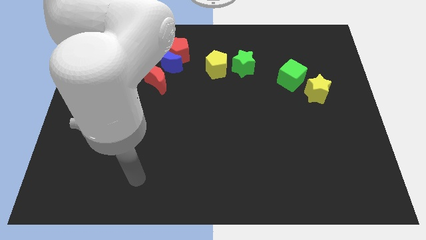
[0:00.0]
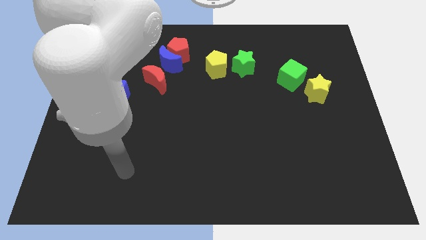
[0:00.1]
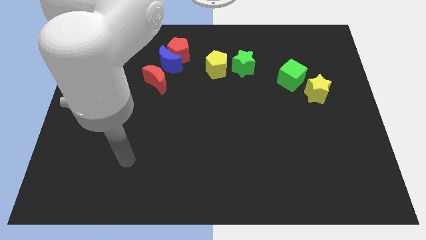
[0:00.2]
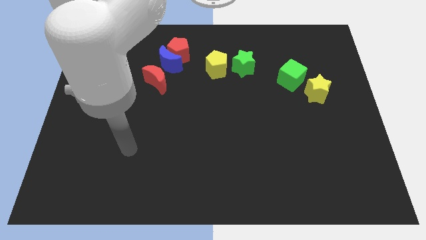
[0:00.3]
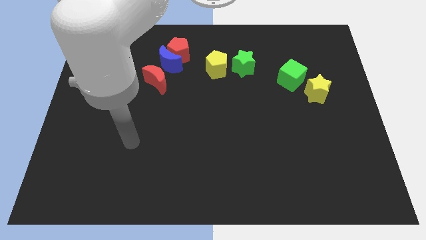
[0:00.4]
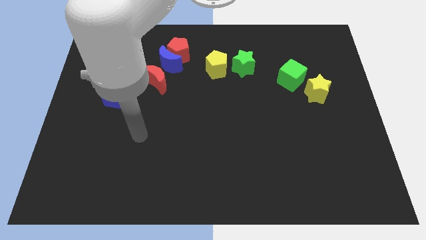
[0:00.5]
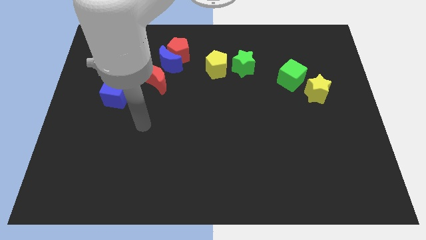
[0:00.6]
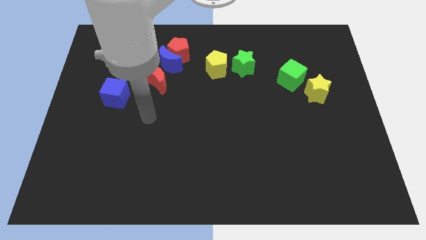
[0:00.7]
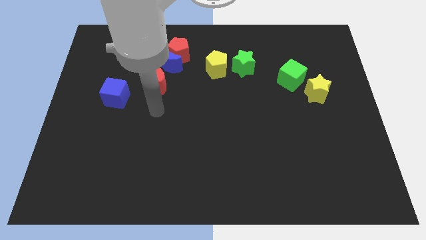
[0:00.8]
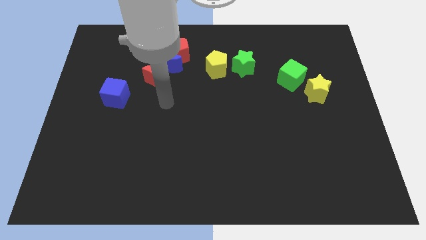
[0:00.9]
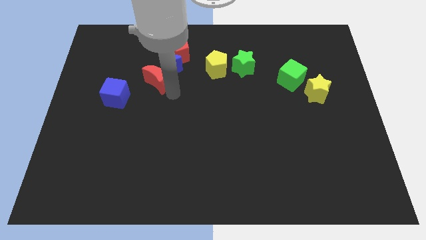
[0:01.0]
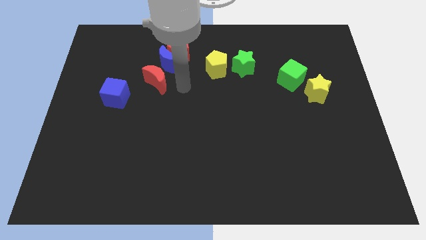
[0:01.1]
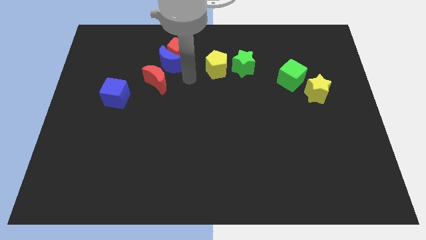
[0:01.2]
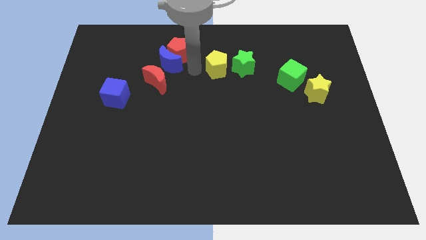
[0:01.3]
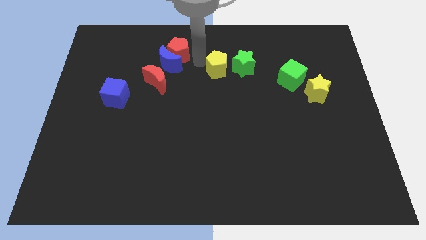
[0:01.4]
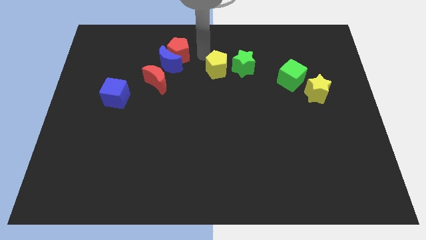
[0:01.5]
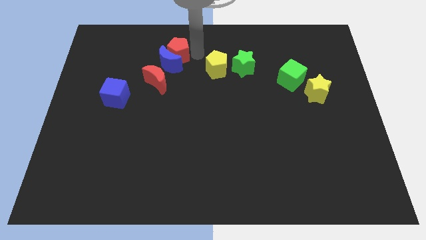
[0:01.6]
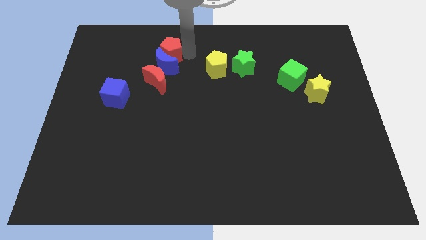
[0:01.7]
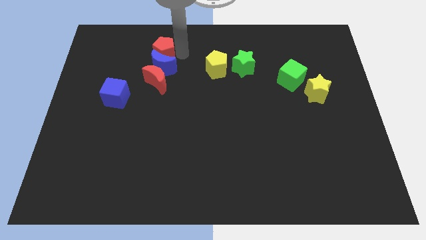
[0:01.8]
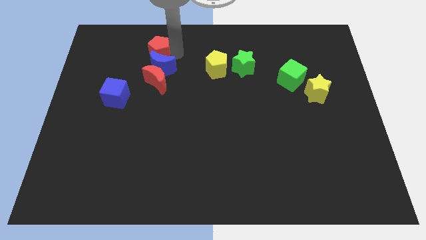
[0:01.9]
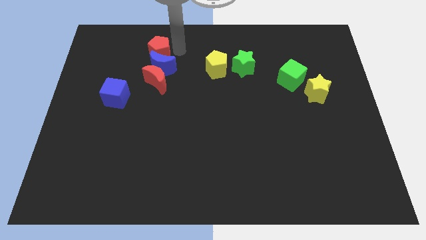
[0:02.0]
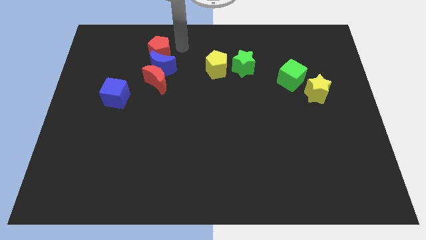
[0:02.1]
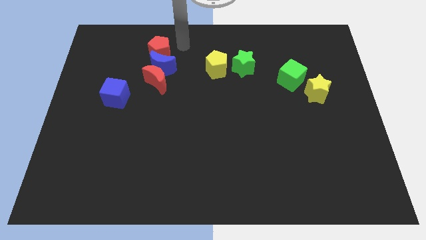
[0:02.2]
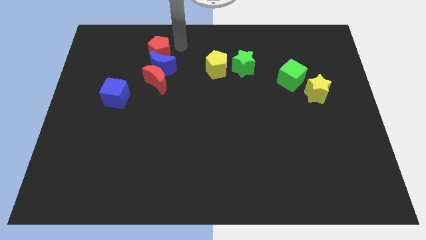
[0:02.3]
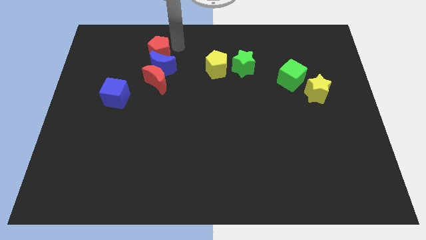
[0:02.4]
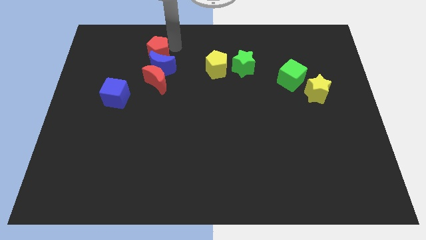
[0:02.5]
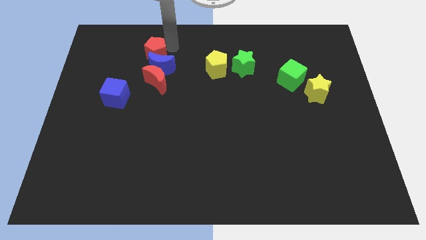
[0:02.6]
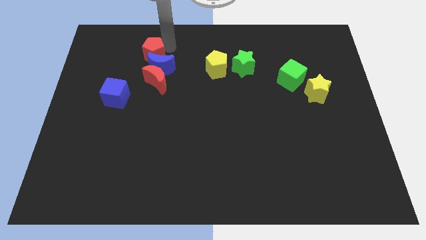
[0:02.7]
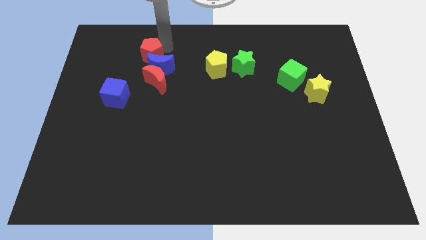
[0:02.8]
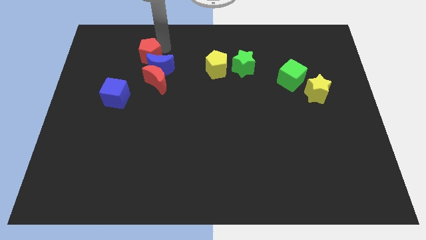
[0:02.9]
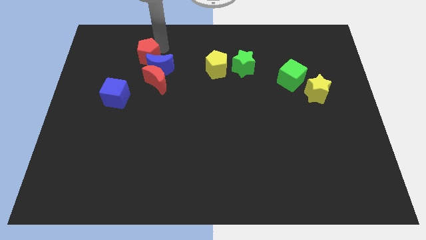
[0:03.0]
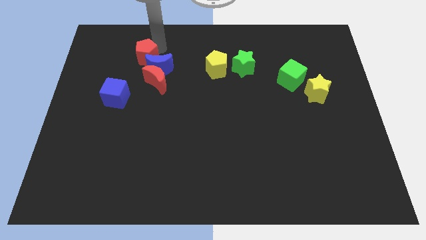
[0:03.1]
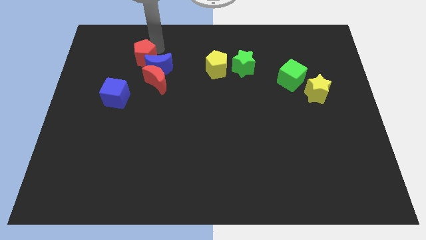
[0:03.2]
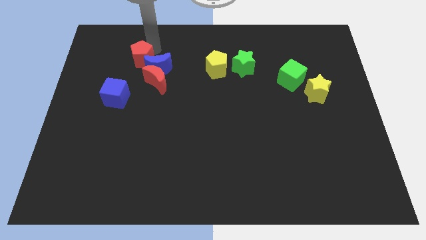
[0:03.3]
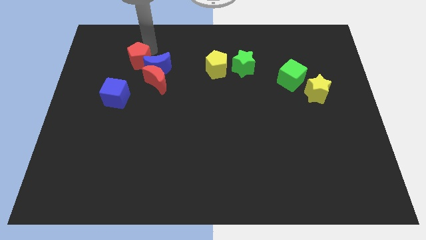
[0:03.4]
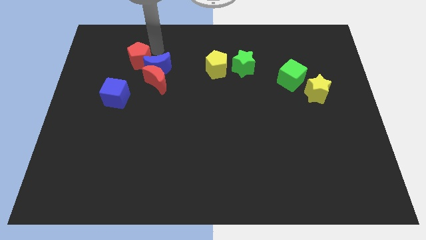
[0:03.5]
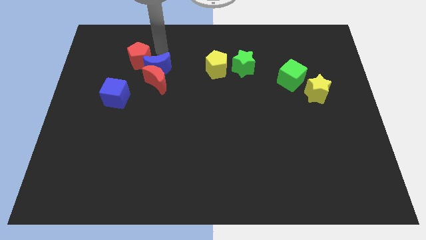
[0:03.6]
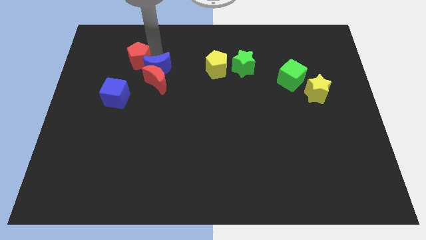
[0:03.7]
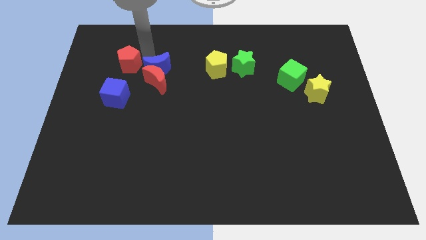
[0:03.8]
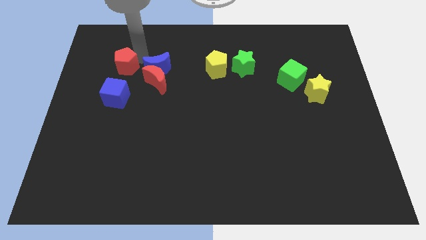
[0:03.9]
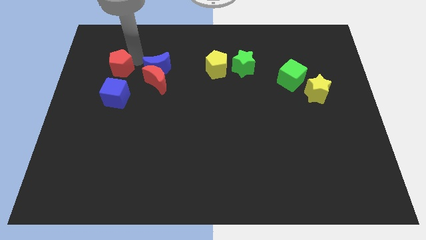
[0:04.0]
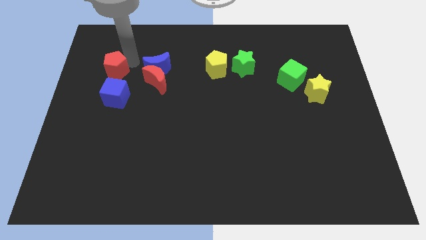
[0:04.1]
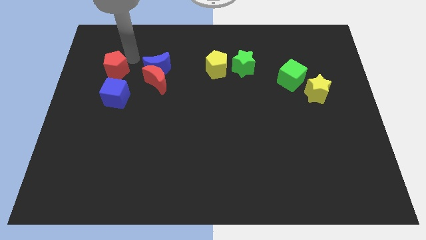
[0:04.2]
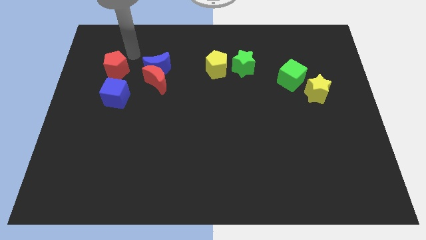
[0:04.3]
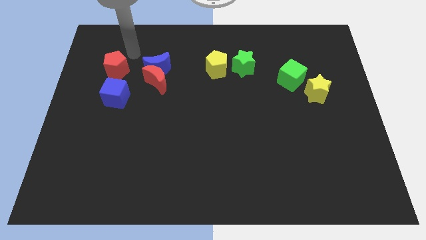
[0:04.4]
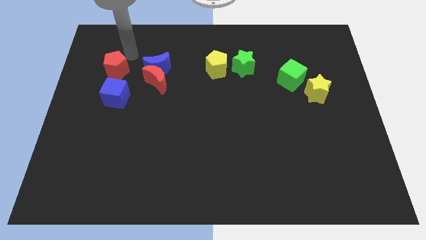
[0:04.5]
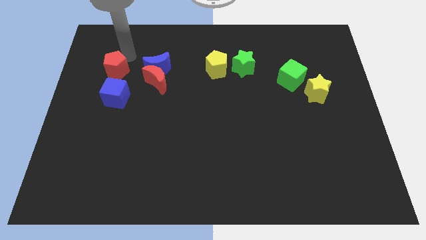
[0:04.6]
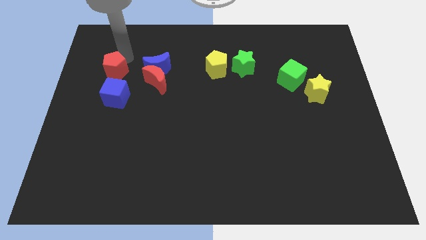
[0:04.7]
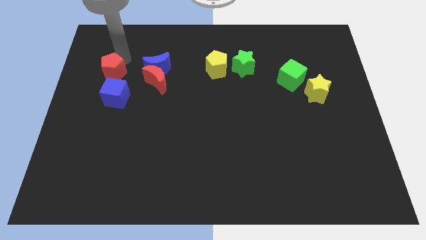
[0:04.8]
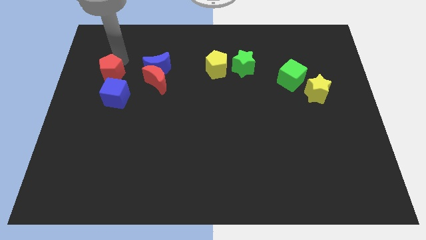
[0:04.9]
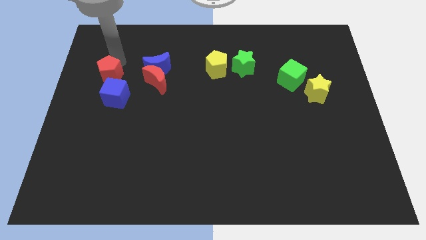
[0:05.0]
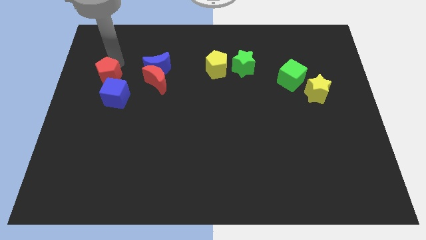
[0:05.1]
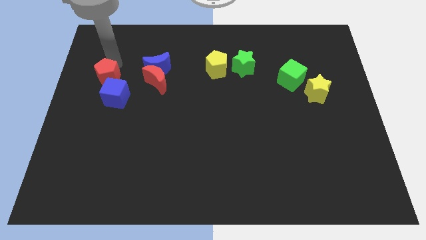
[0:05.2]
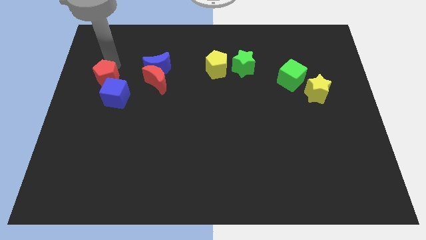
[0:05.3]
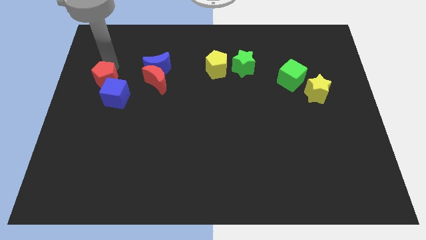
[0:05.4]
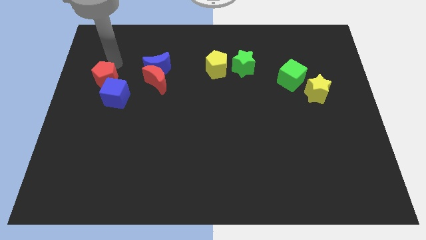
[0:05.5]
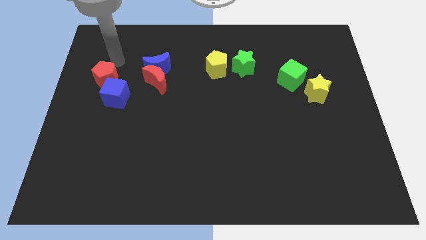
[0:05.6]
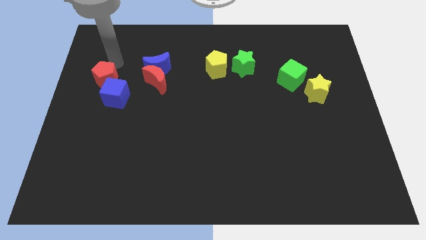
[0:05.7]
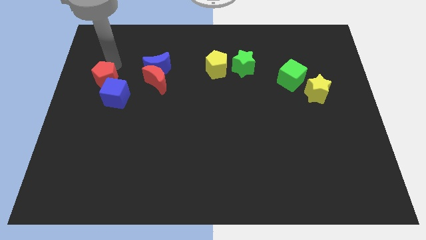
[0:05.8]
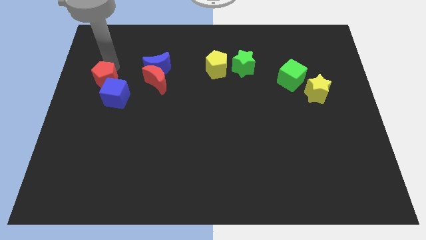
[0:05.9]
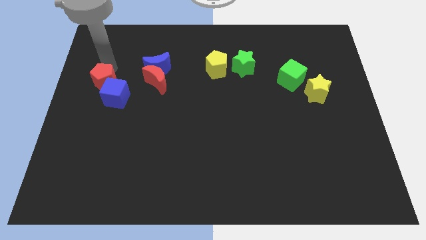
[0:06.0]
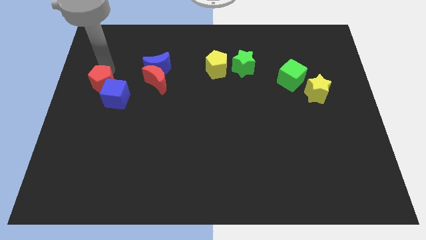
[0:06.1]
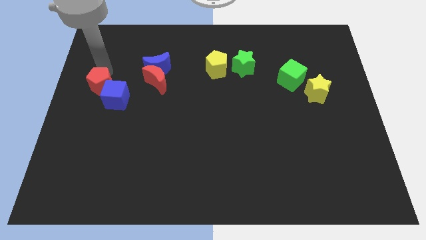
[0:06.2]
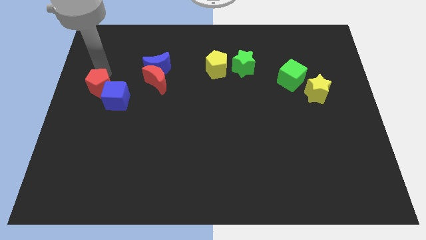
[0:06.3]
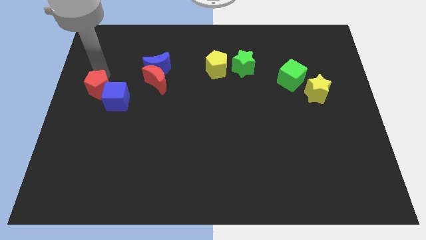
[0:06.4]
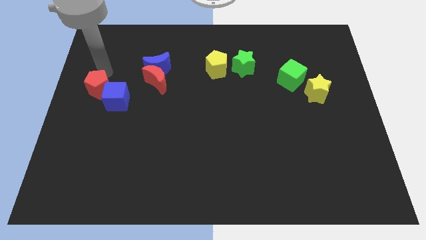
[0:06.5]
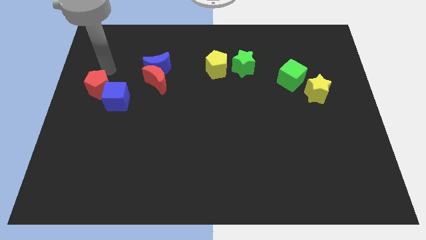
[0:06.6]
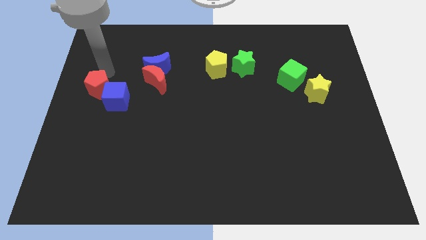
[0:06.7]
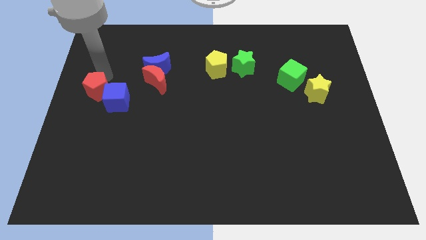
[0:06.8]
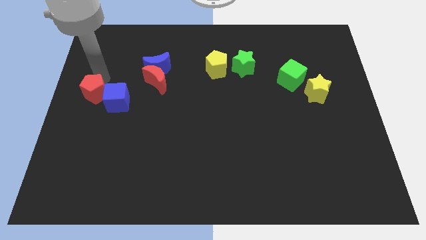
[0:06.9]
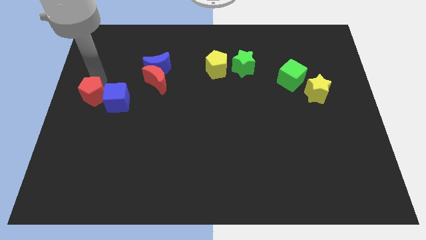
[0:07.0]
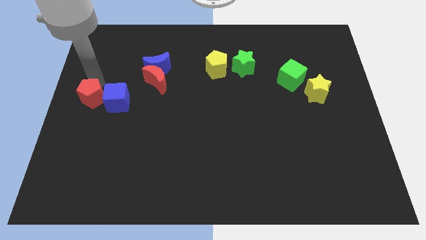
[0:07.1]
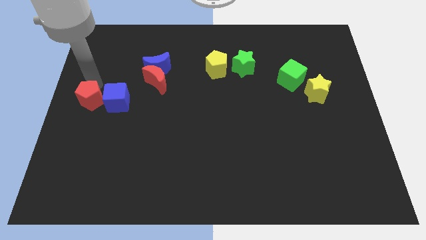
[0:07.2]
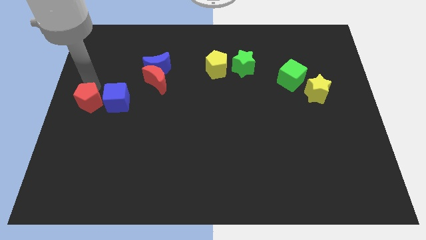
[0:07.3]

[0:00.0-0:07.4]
move the red pentagon to the bottom left of the blue cube

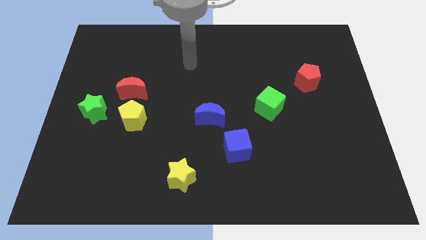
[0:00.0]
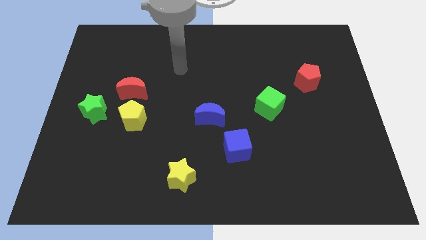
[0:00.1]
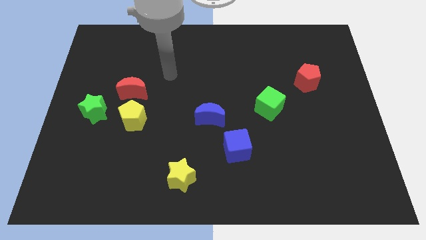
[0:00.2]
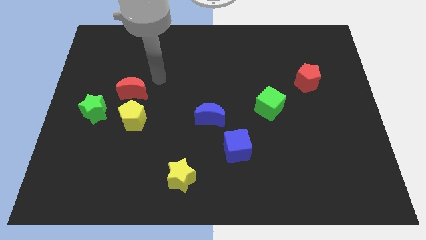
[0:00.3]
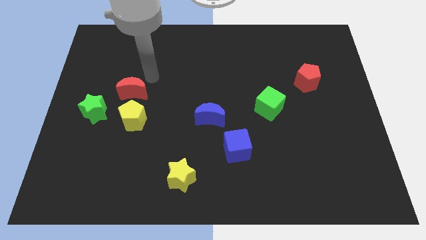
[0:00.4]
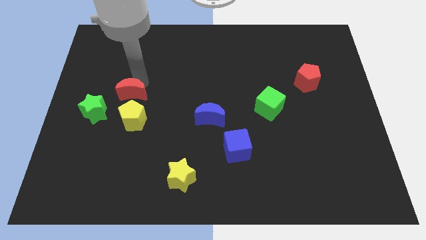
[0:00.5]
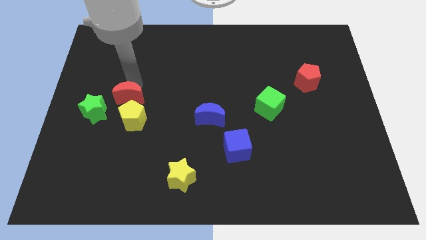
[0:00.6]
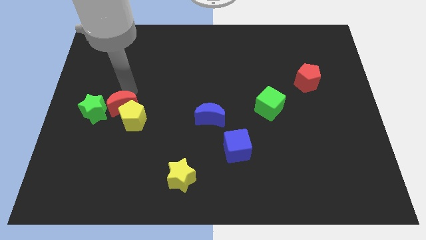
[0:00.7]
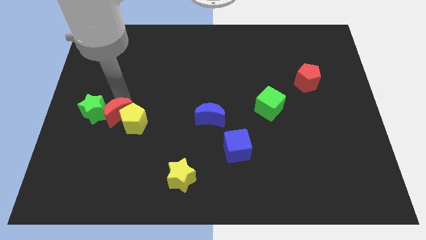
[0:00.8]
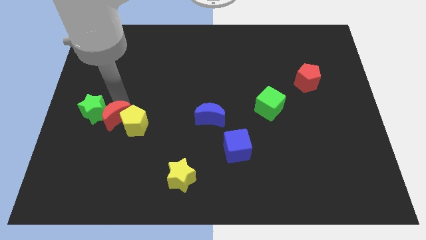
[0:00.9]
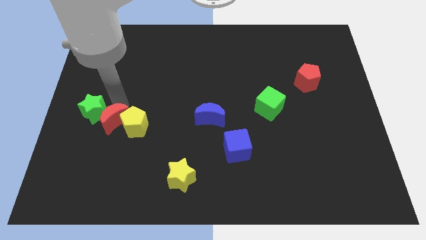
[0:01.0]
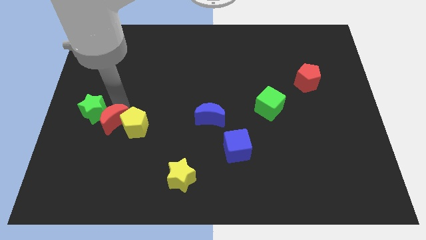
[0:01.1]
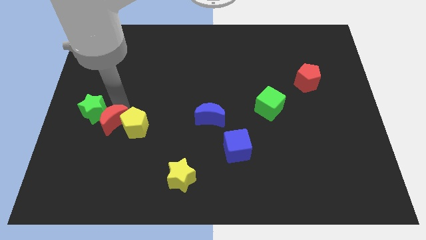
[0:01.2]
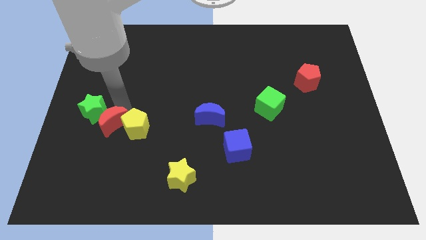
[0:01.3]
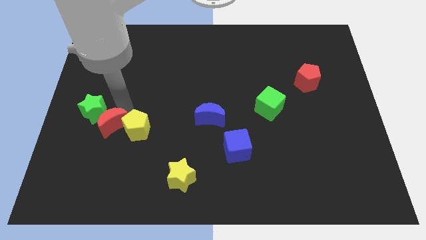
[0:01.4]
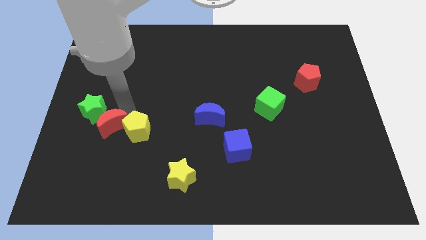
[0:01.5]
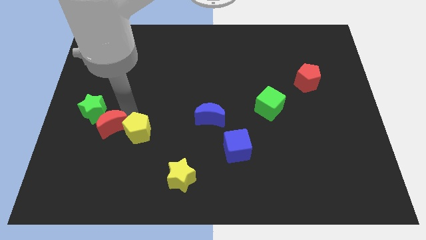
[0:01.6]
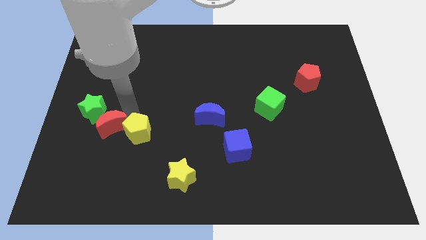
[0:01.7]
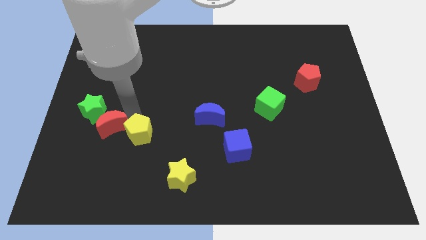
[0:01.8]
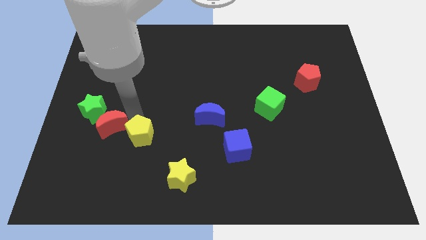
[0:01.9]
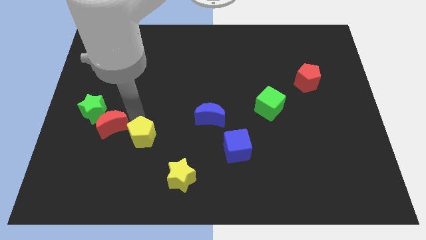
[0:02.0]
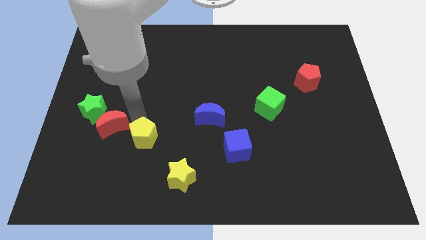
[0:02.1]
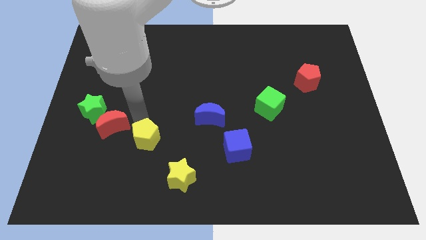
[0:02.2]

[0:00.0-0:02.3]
push the yellow pentagon to the top left side of the yellow star
